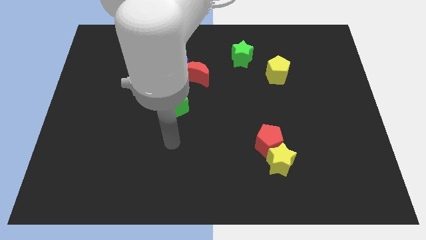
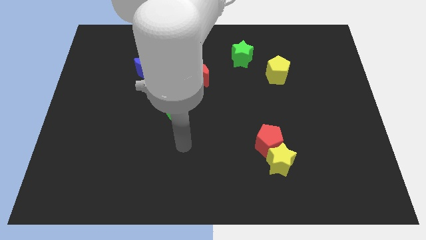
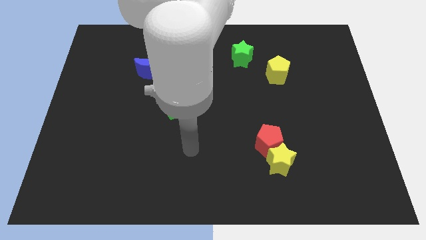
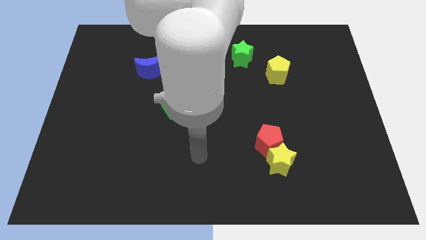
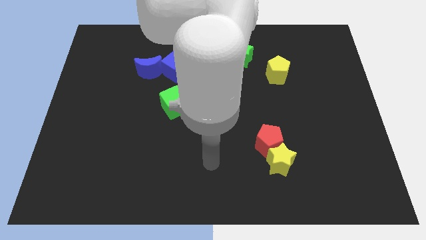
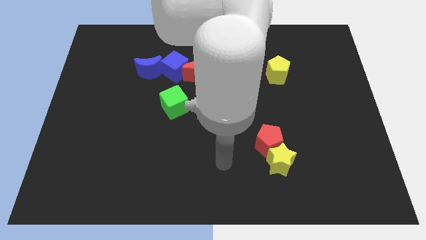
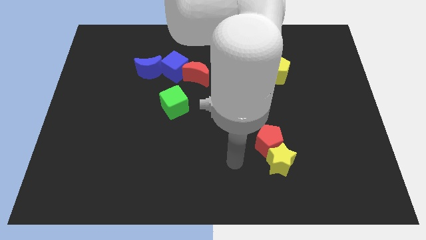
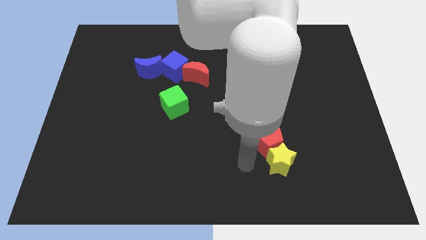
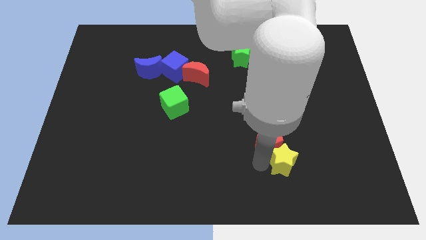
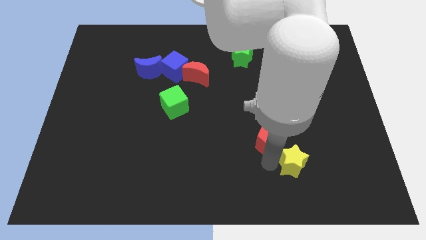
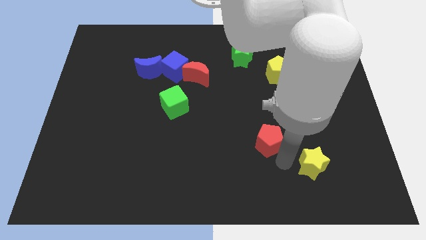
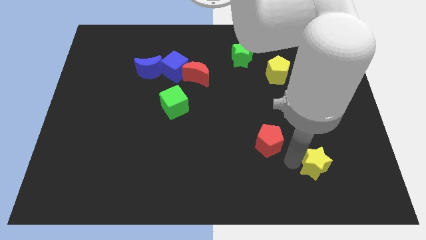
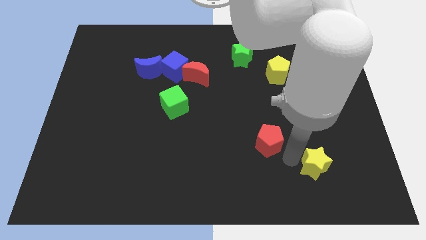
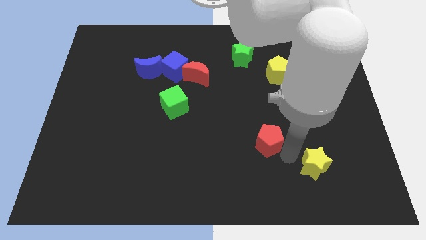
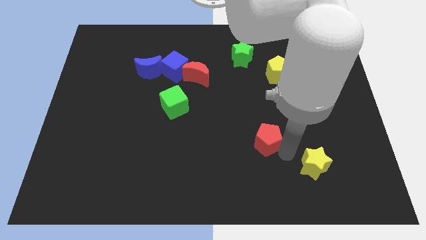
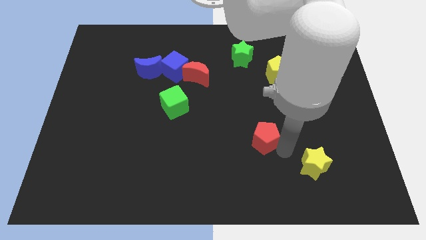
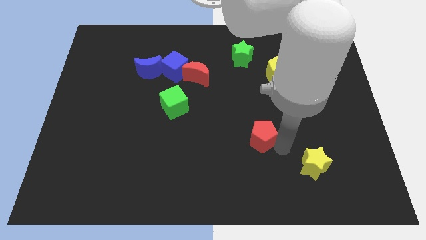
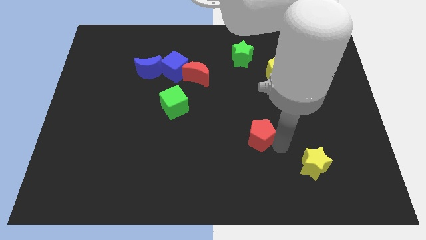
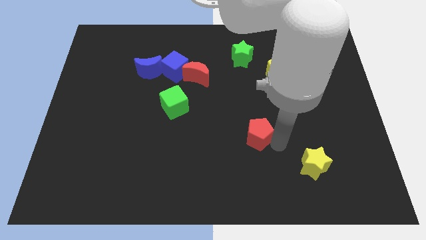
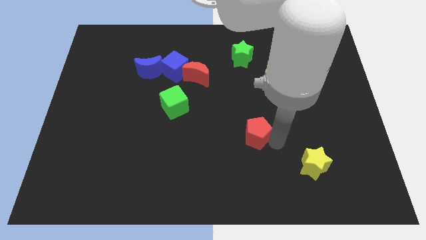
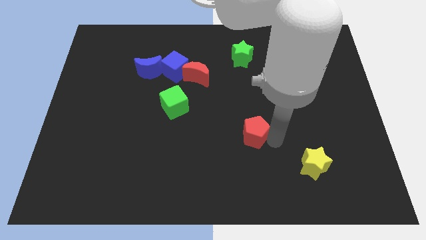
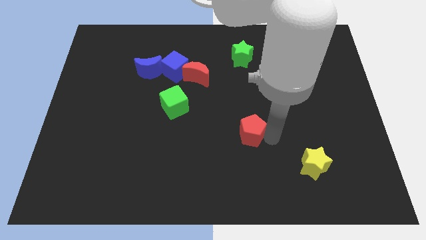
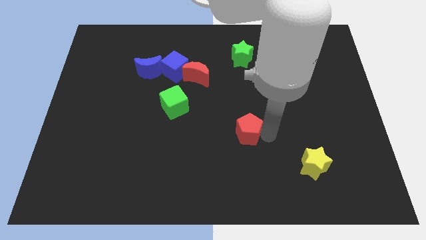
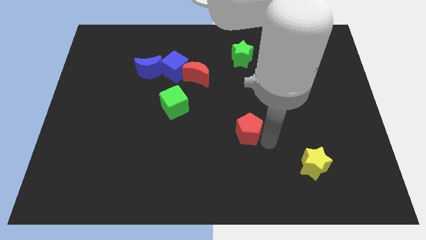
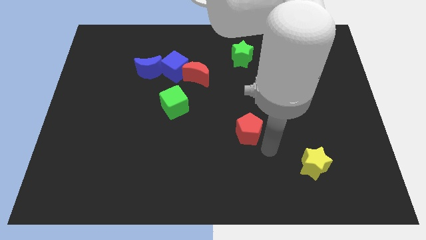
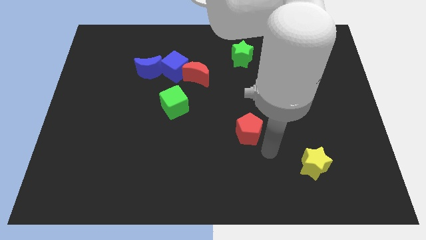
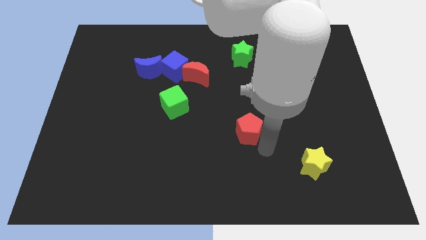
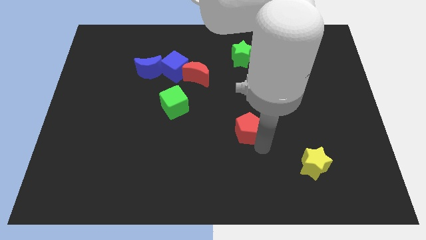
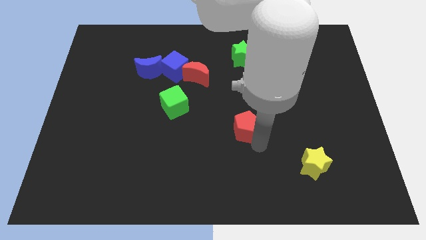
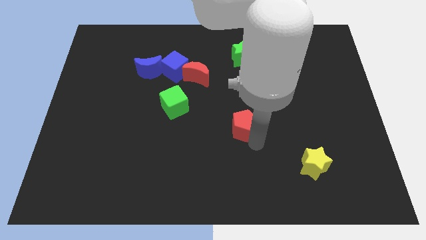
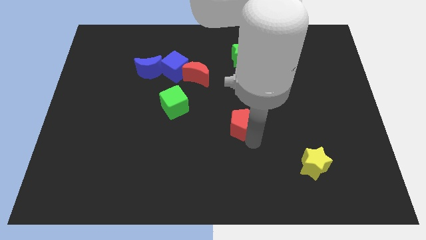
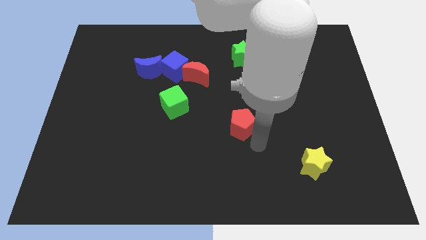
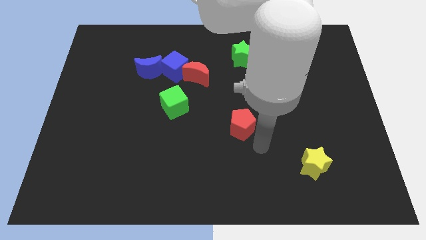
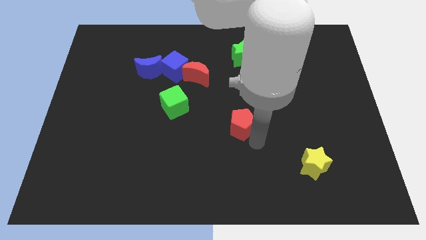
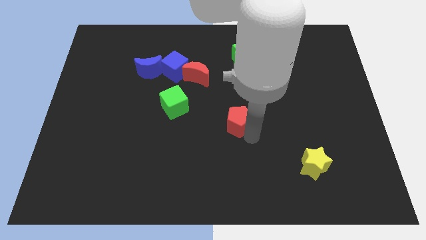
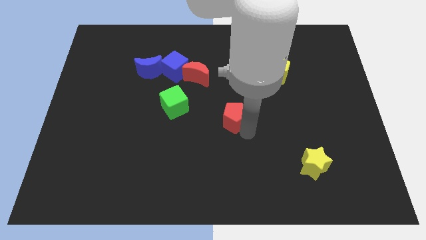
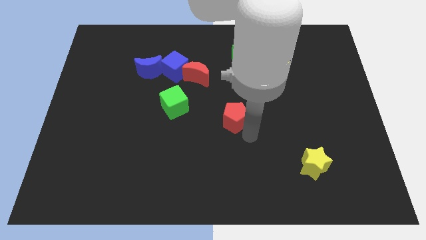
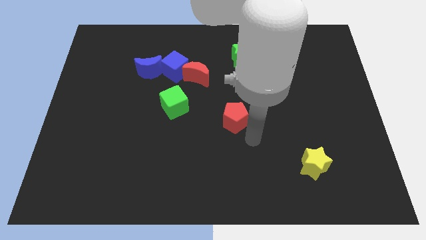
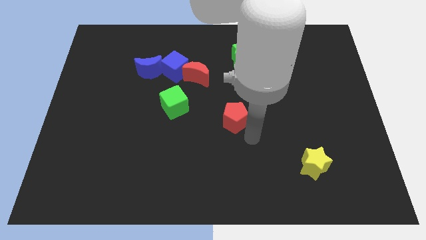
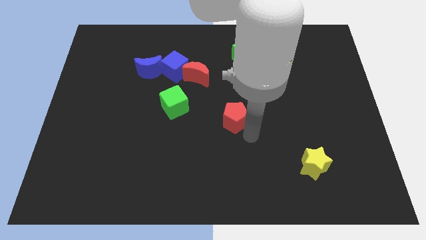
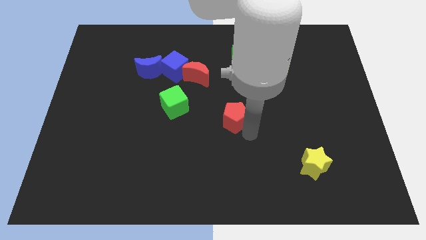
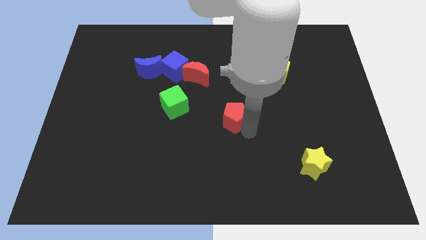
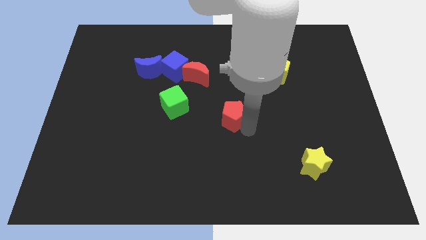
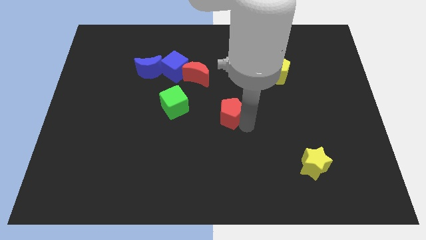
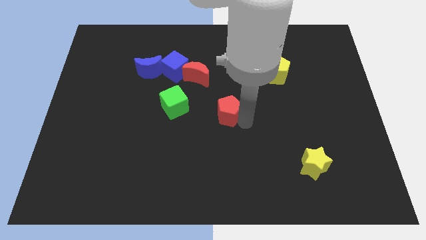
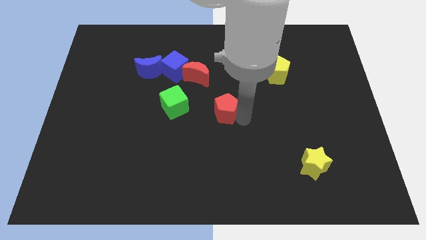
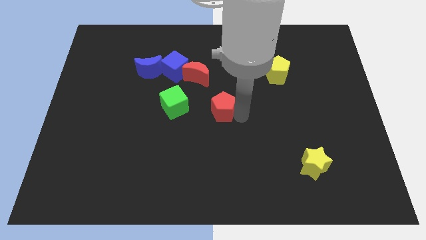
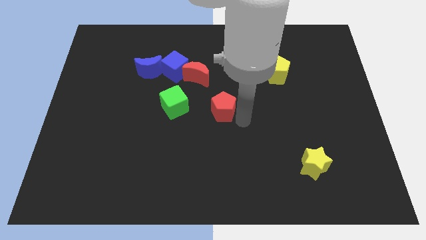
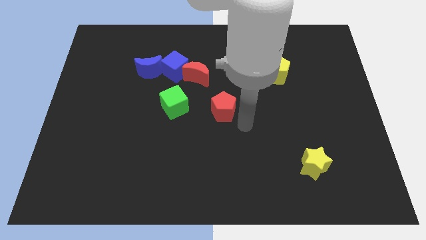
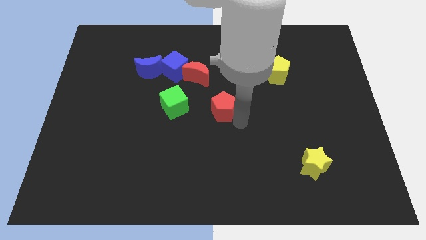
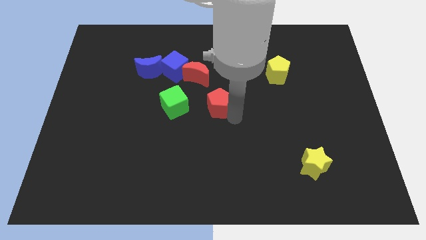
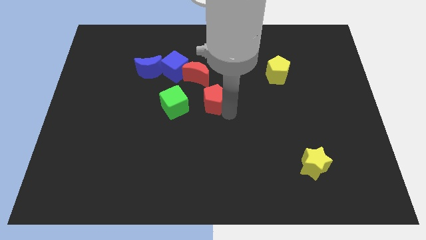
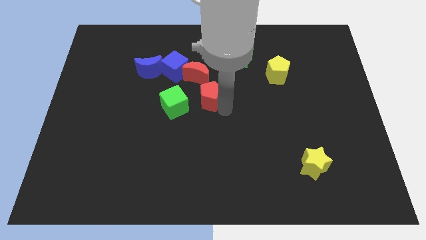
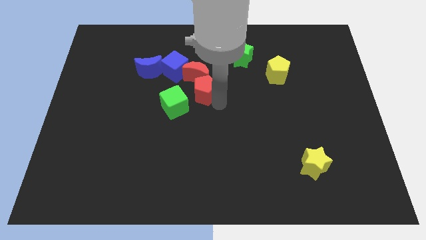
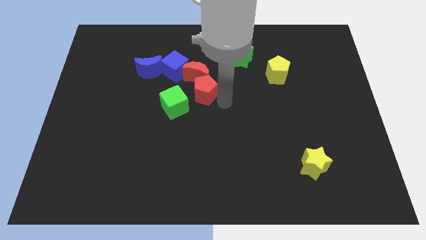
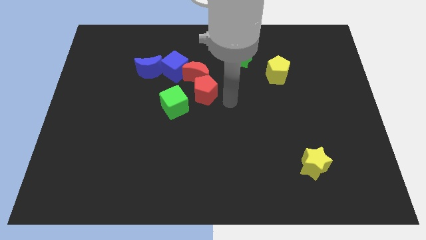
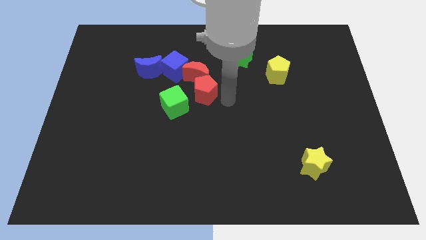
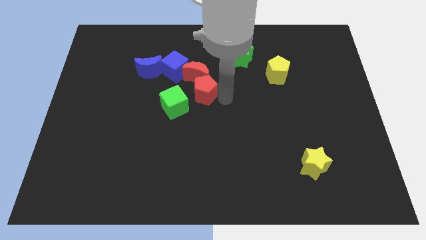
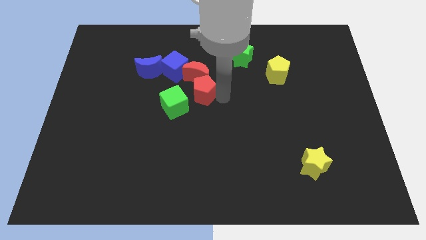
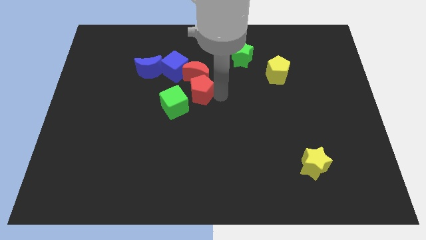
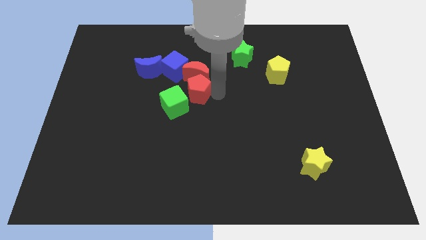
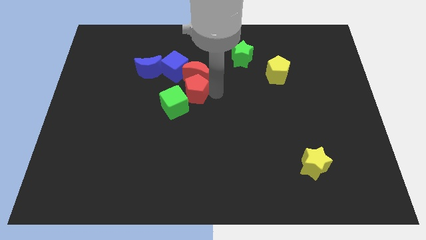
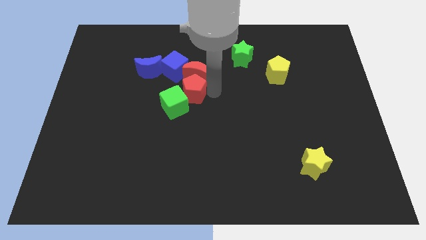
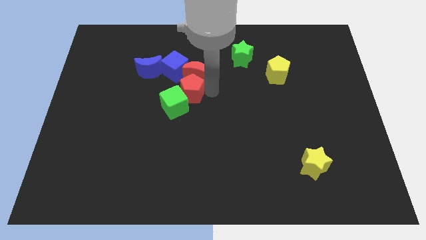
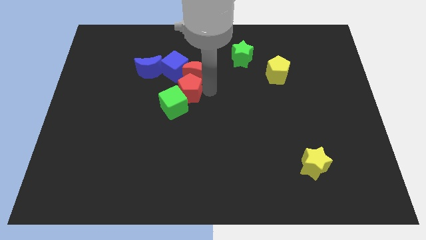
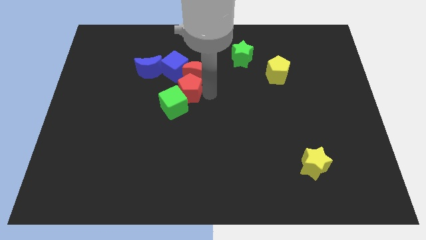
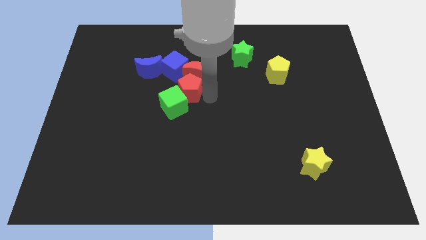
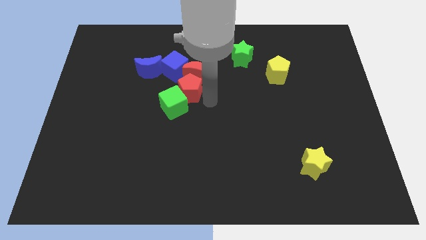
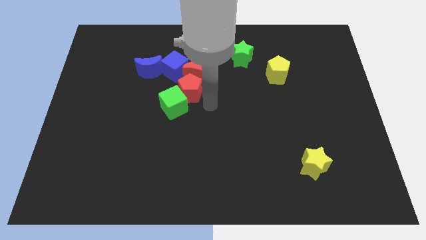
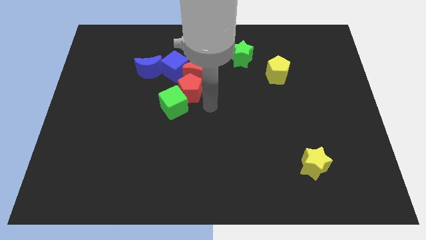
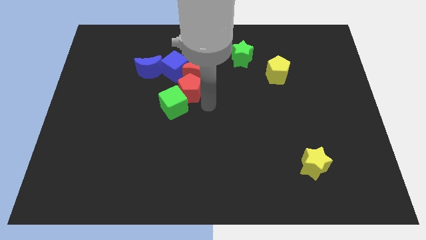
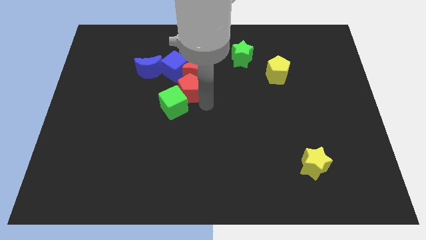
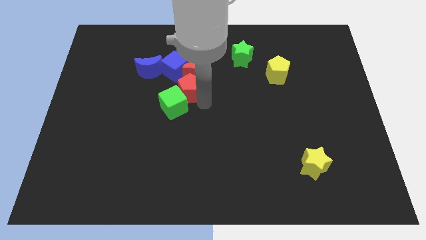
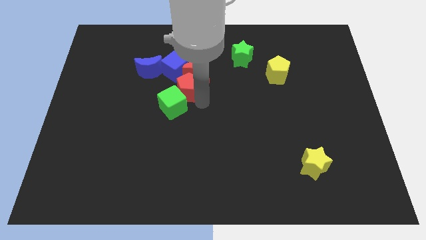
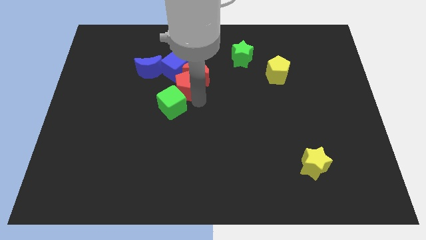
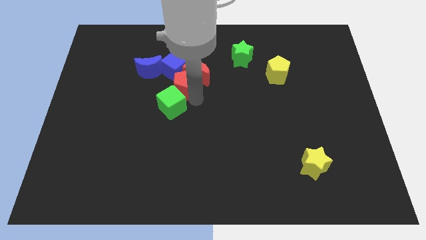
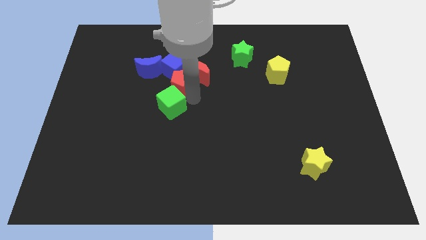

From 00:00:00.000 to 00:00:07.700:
move the red pentagon to the blue cube
